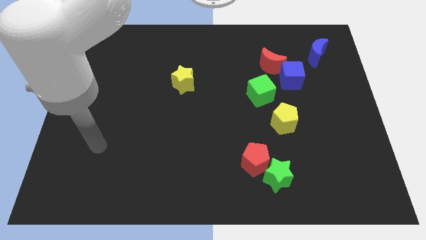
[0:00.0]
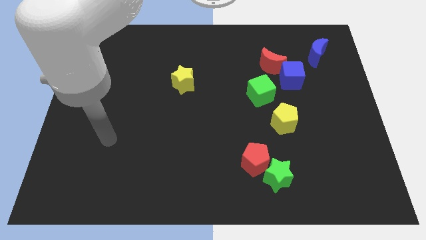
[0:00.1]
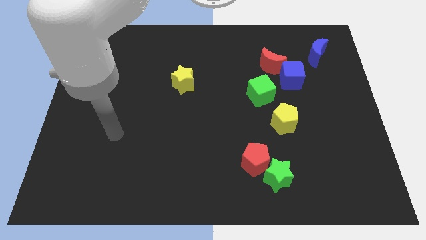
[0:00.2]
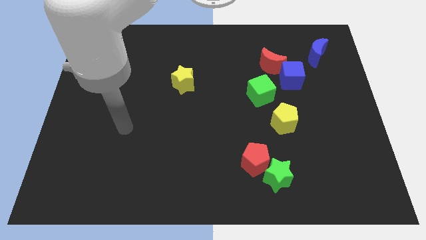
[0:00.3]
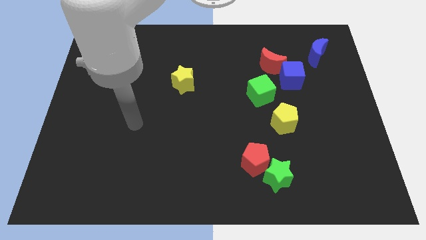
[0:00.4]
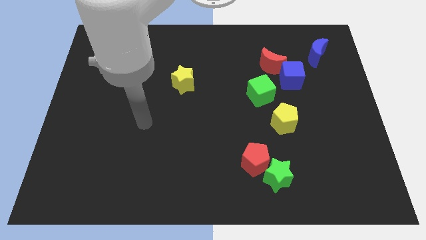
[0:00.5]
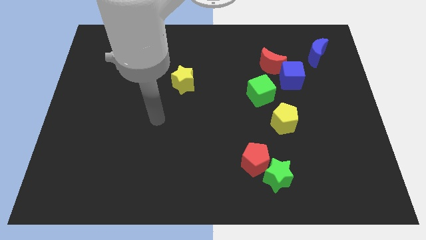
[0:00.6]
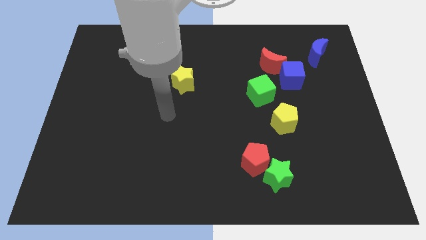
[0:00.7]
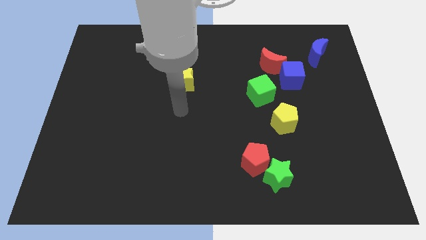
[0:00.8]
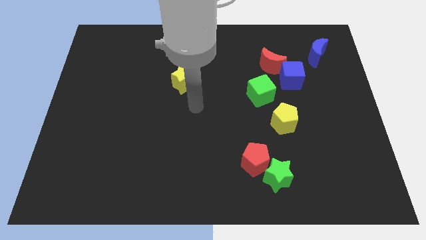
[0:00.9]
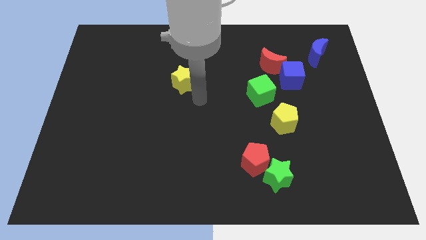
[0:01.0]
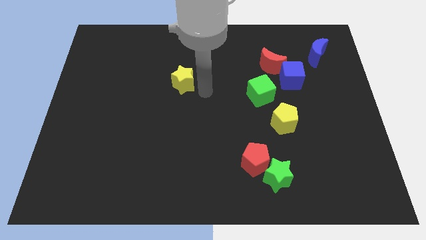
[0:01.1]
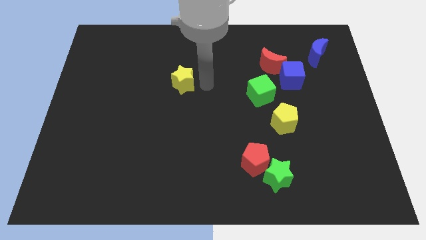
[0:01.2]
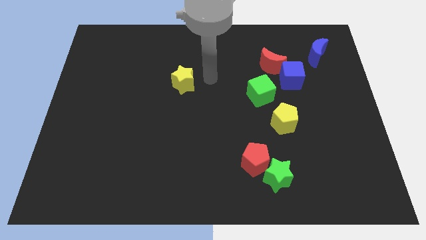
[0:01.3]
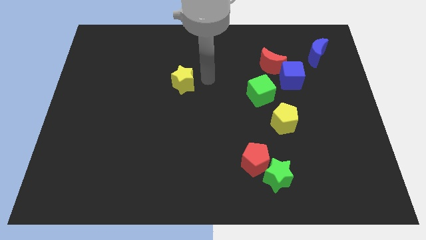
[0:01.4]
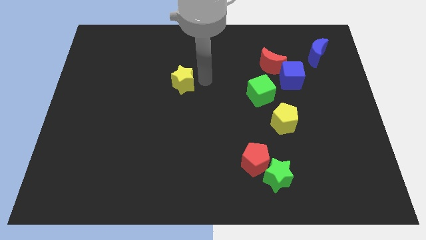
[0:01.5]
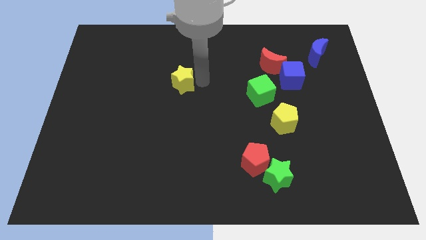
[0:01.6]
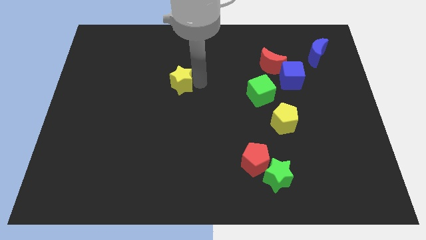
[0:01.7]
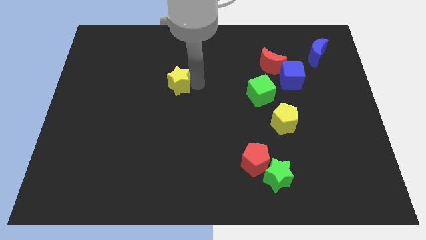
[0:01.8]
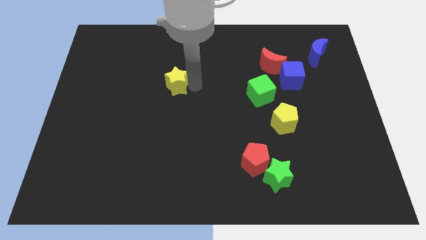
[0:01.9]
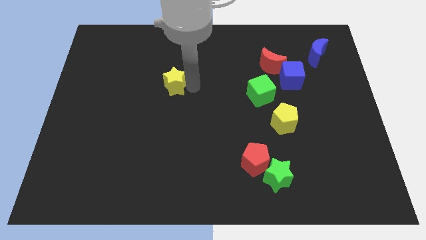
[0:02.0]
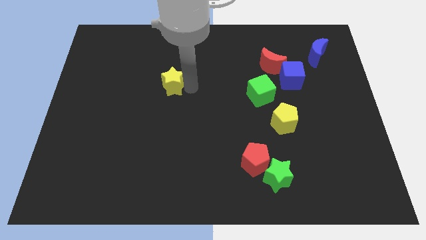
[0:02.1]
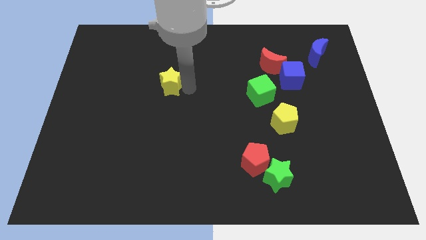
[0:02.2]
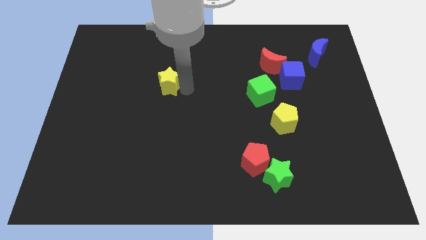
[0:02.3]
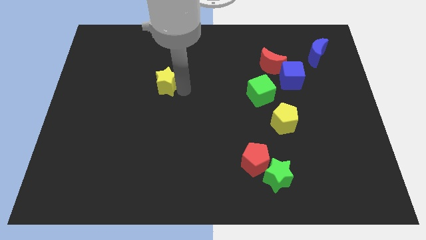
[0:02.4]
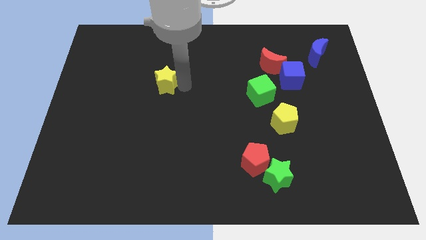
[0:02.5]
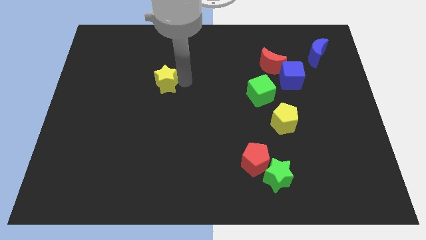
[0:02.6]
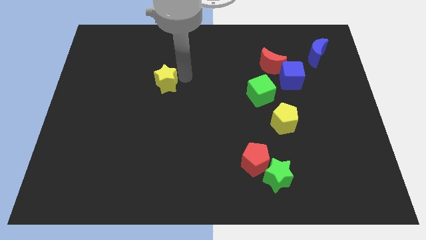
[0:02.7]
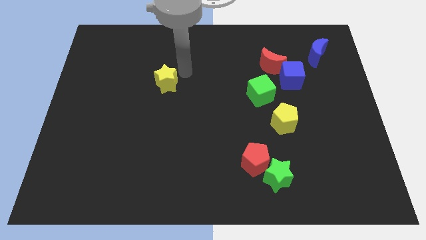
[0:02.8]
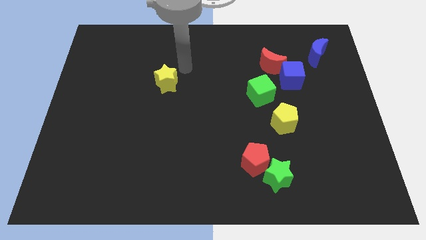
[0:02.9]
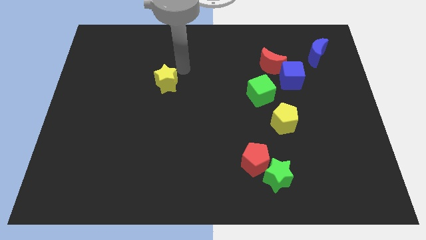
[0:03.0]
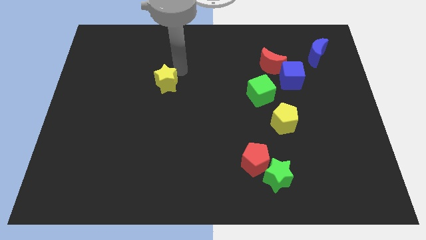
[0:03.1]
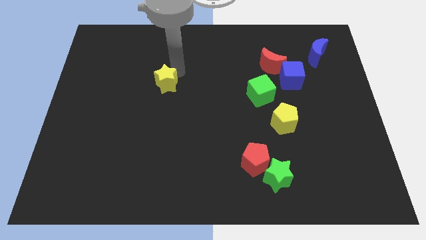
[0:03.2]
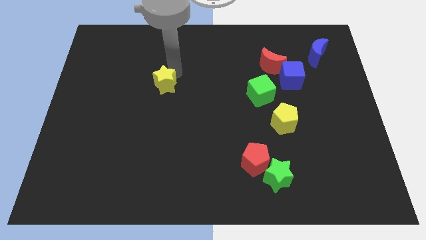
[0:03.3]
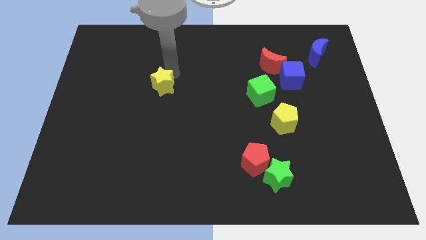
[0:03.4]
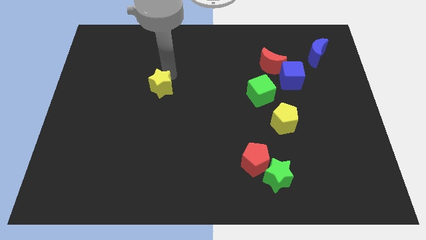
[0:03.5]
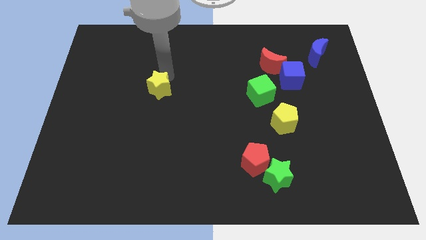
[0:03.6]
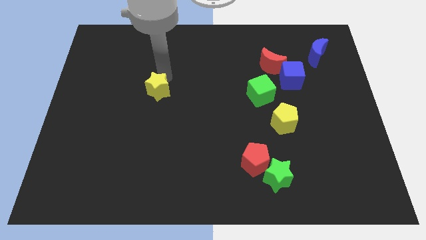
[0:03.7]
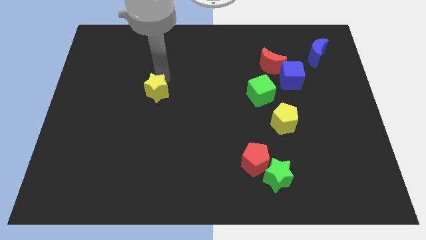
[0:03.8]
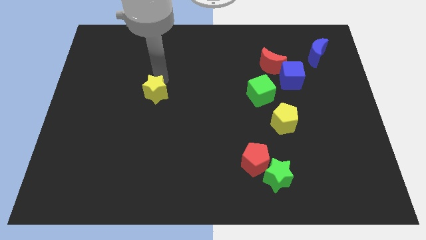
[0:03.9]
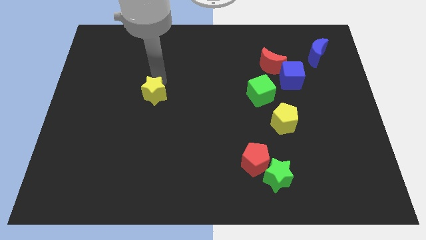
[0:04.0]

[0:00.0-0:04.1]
push the yellow star down and then to the left somewhat

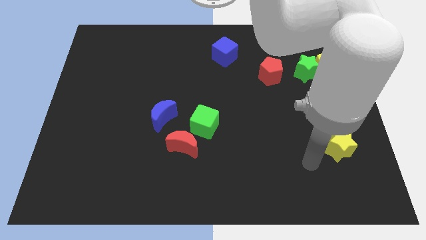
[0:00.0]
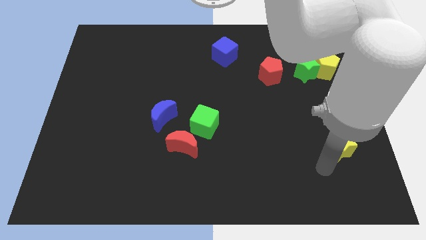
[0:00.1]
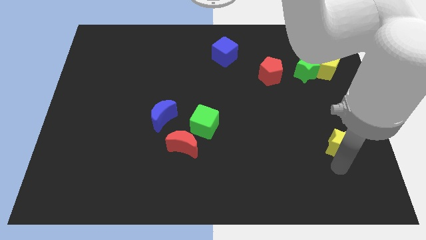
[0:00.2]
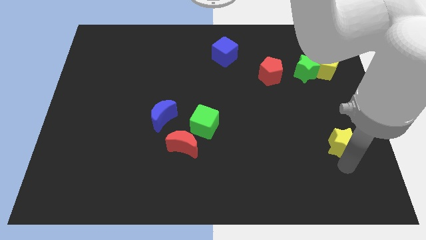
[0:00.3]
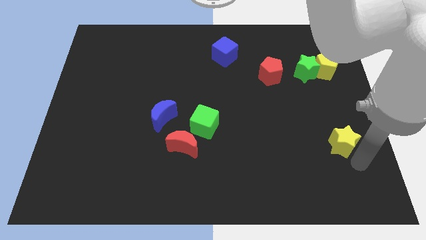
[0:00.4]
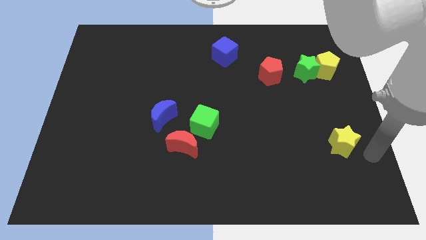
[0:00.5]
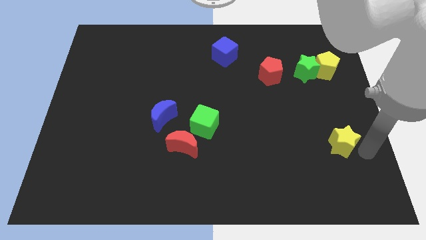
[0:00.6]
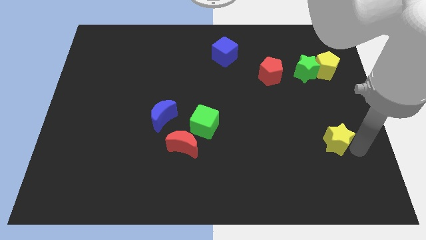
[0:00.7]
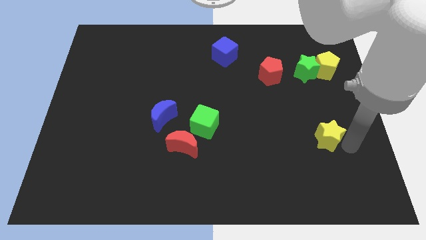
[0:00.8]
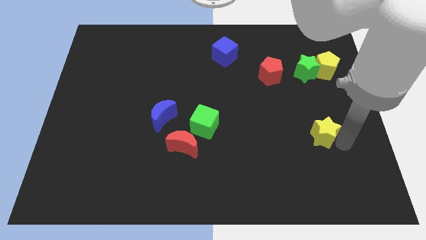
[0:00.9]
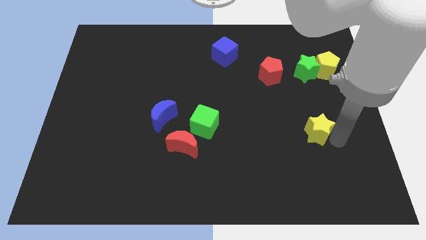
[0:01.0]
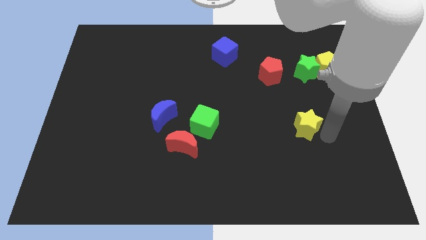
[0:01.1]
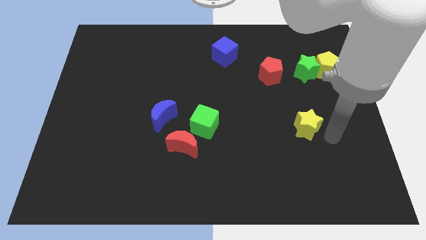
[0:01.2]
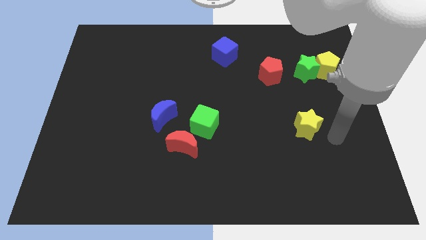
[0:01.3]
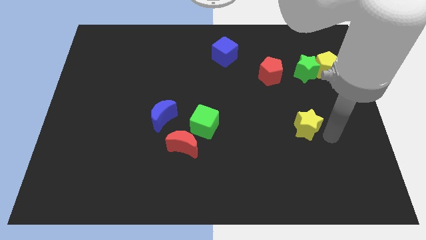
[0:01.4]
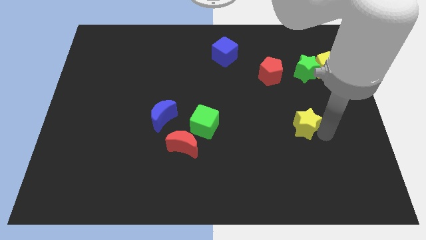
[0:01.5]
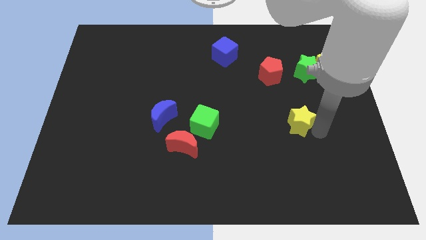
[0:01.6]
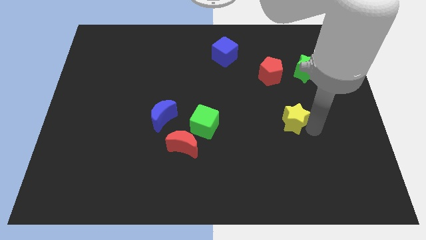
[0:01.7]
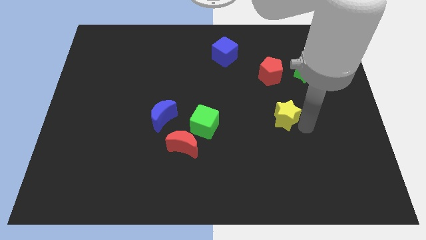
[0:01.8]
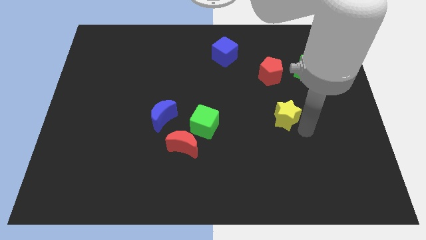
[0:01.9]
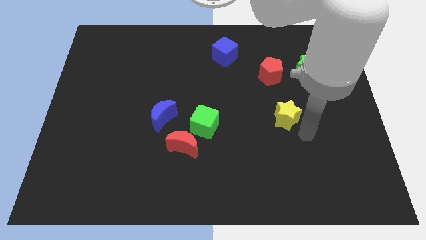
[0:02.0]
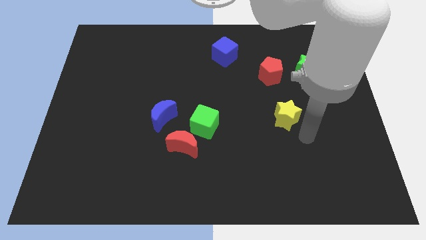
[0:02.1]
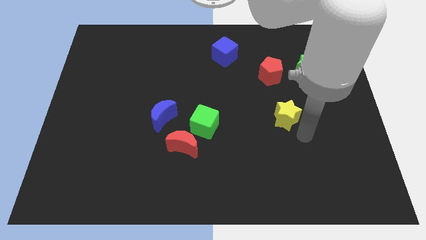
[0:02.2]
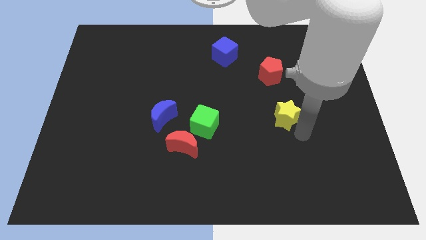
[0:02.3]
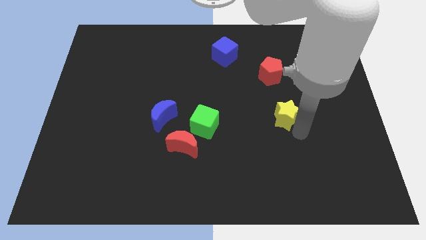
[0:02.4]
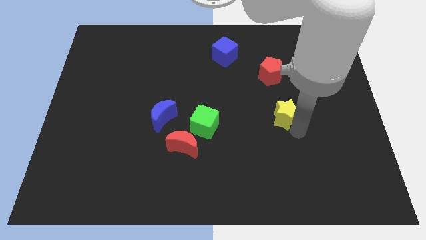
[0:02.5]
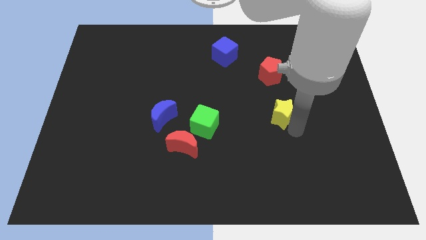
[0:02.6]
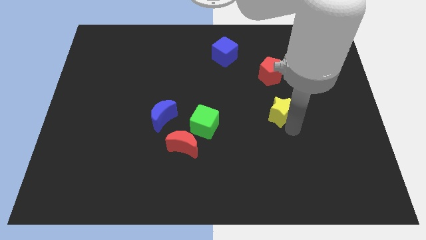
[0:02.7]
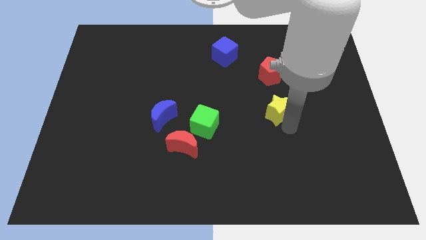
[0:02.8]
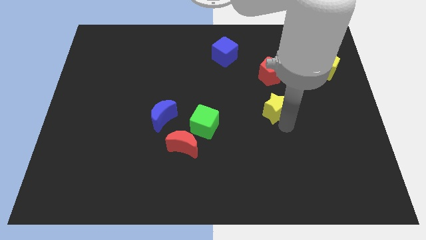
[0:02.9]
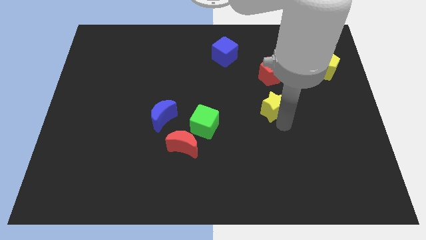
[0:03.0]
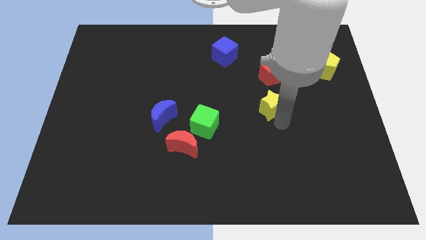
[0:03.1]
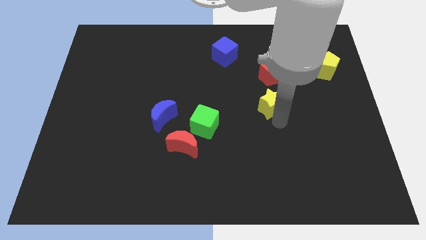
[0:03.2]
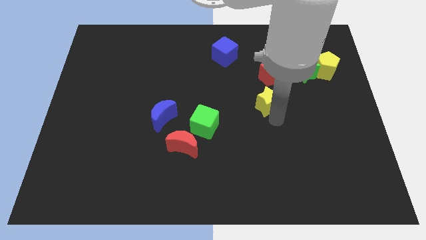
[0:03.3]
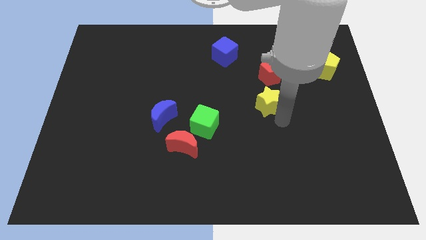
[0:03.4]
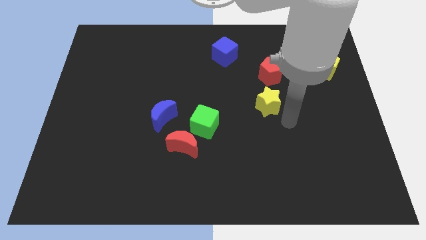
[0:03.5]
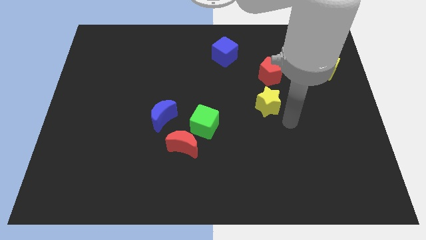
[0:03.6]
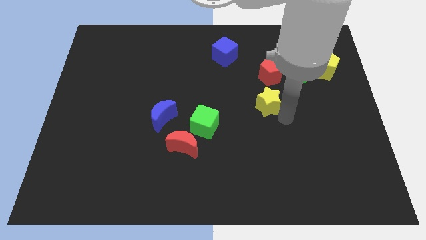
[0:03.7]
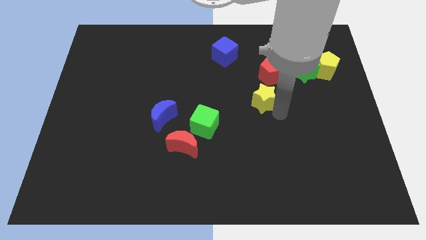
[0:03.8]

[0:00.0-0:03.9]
push the yellow star upwards and to the left diagonally
